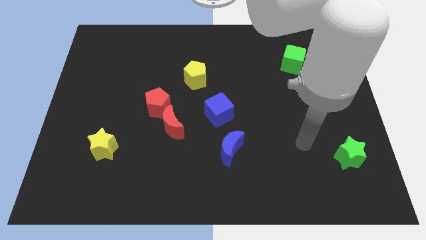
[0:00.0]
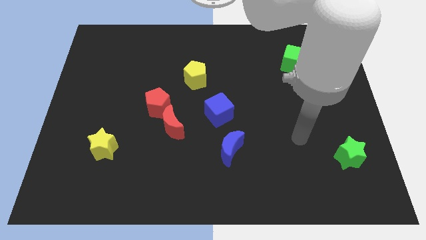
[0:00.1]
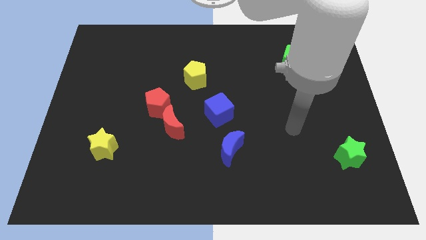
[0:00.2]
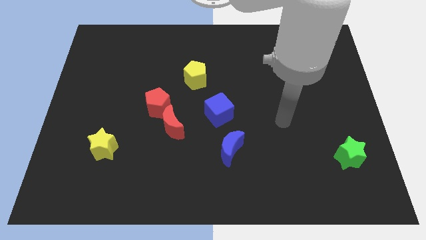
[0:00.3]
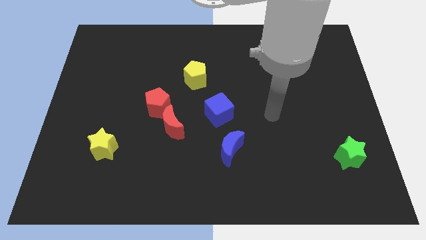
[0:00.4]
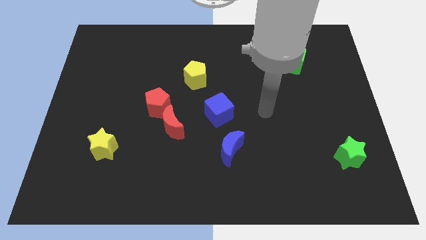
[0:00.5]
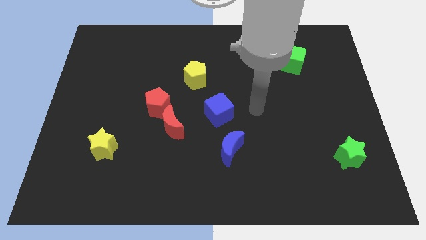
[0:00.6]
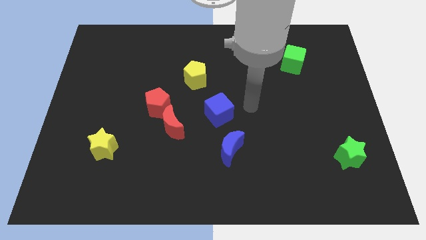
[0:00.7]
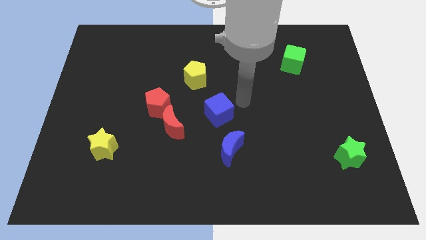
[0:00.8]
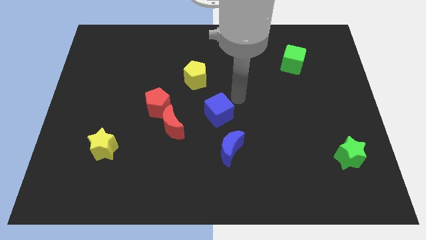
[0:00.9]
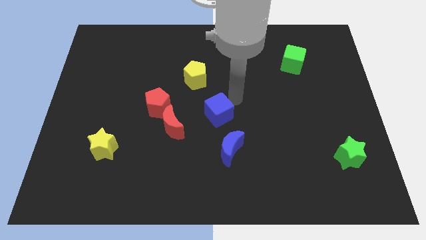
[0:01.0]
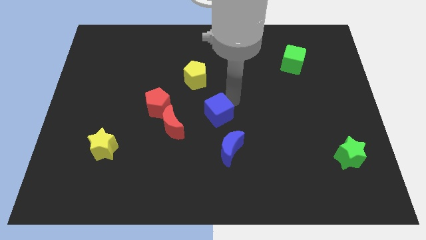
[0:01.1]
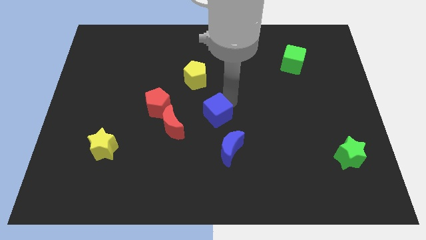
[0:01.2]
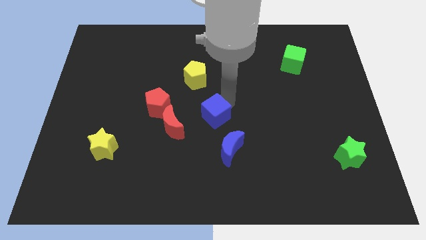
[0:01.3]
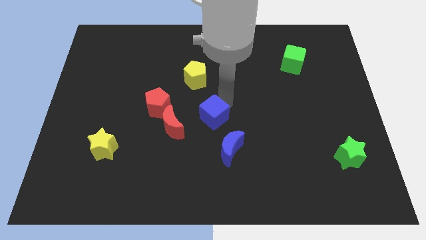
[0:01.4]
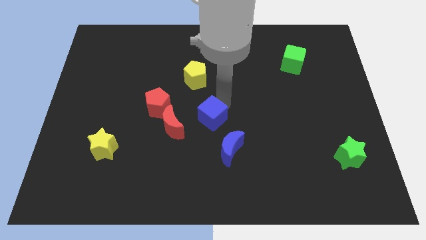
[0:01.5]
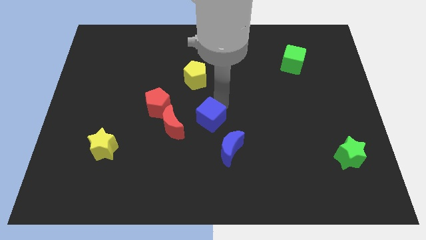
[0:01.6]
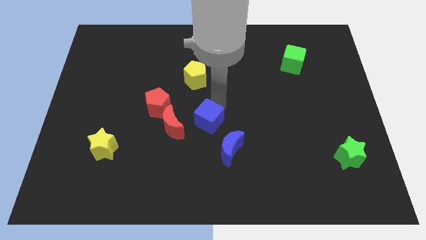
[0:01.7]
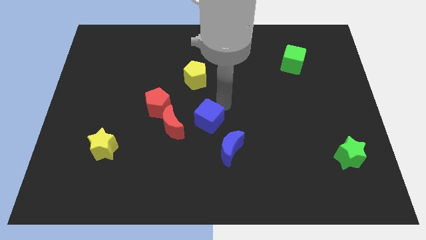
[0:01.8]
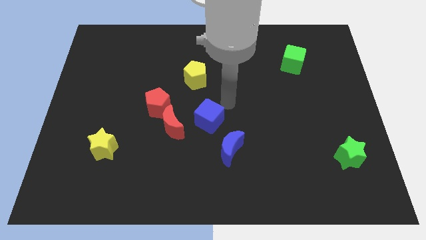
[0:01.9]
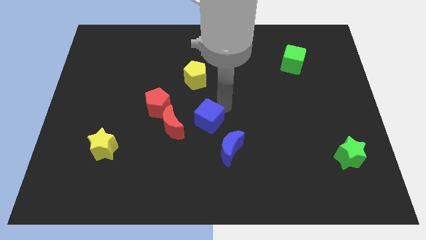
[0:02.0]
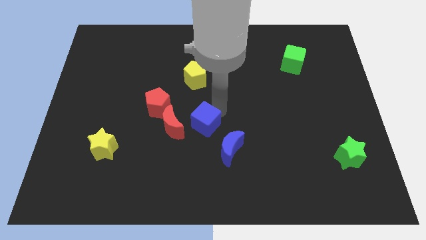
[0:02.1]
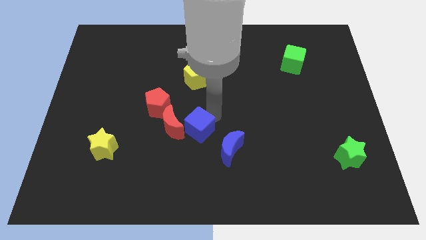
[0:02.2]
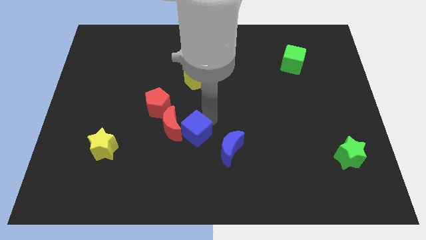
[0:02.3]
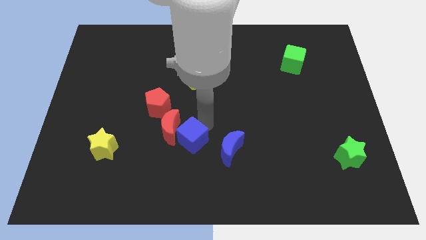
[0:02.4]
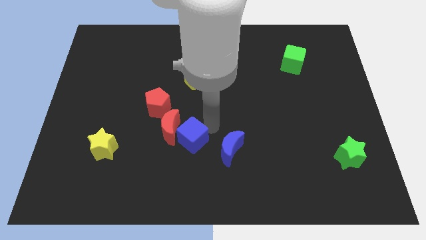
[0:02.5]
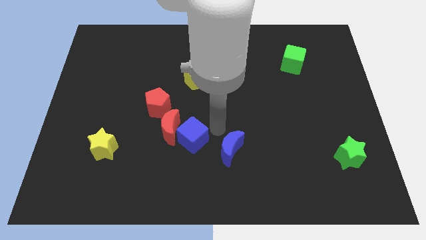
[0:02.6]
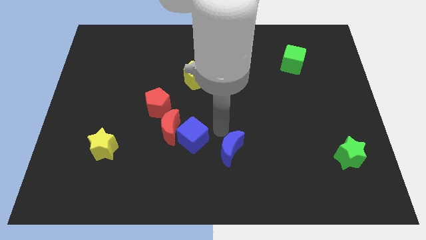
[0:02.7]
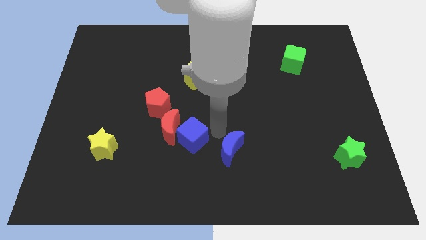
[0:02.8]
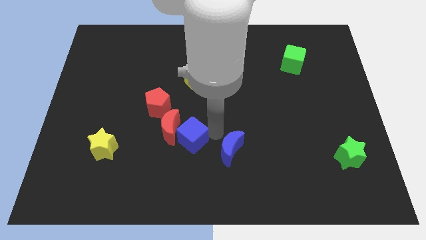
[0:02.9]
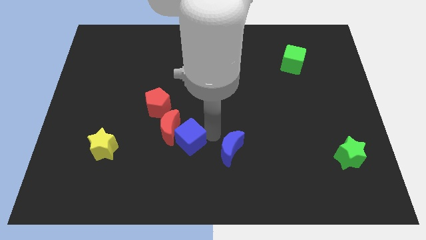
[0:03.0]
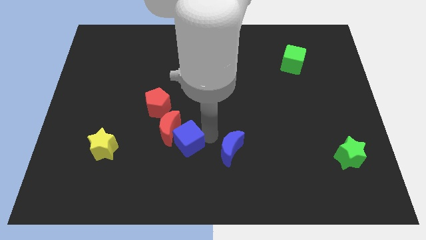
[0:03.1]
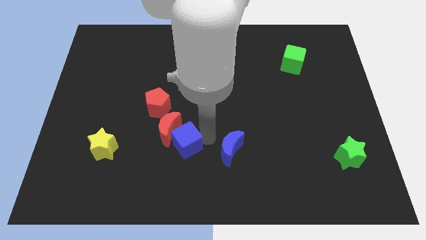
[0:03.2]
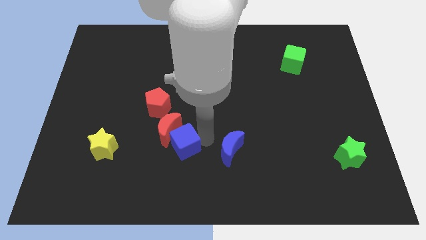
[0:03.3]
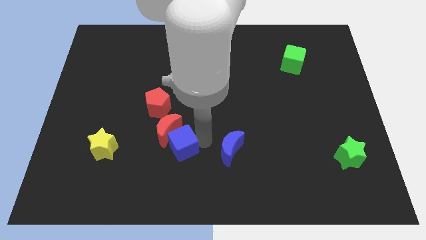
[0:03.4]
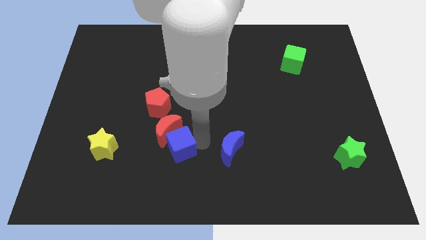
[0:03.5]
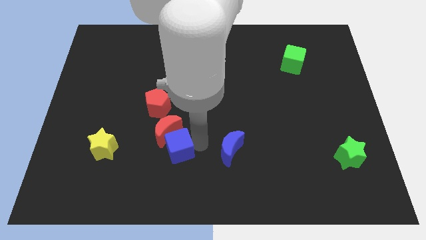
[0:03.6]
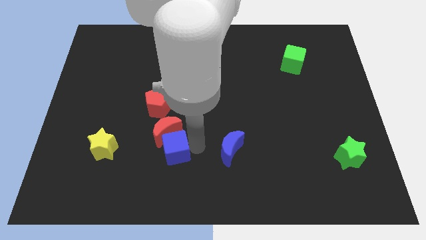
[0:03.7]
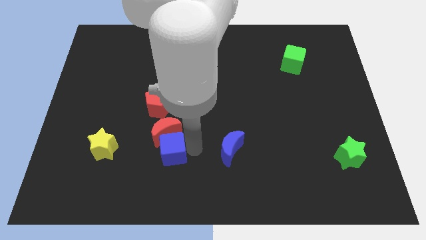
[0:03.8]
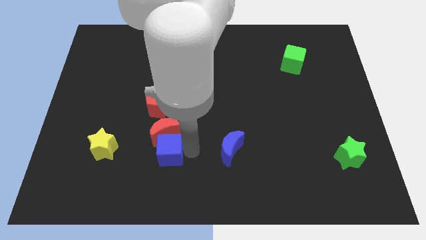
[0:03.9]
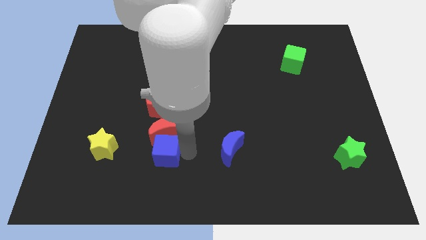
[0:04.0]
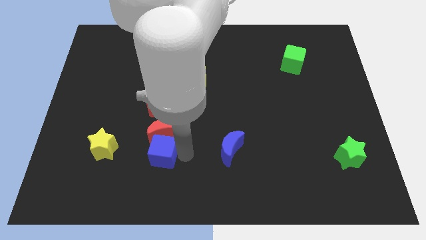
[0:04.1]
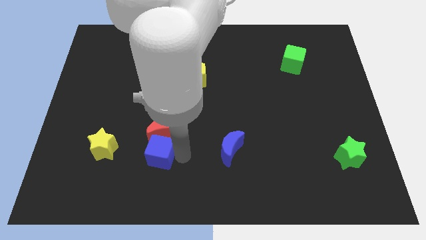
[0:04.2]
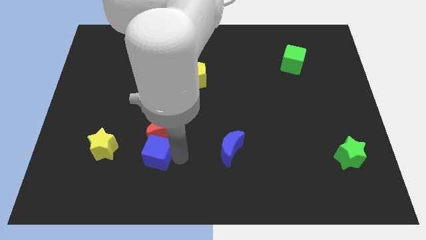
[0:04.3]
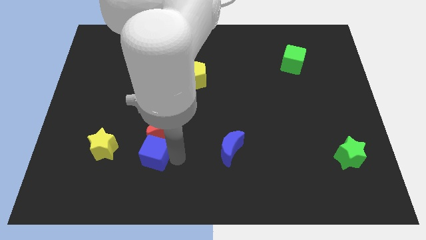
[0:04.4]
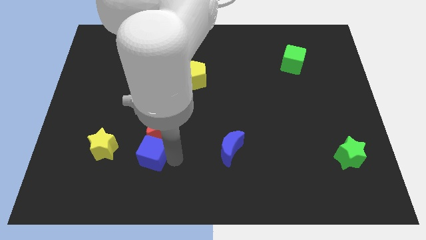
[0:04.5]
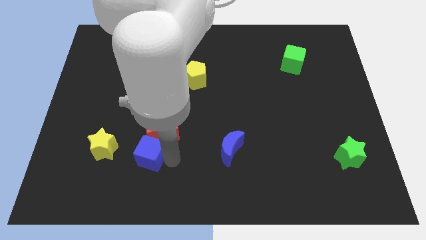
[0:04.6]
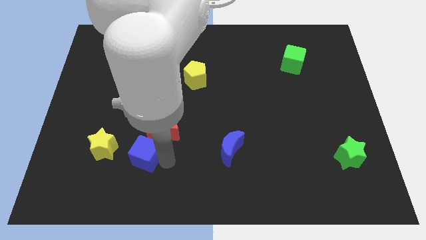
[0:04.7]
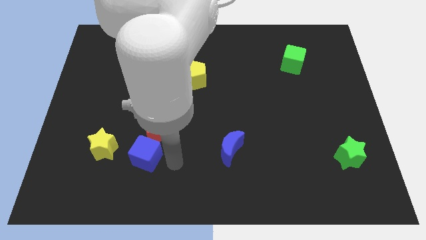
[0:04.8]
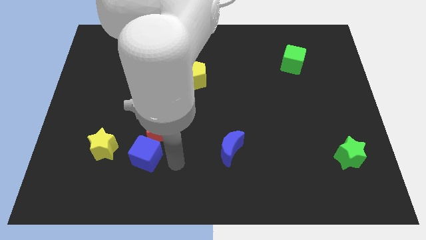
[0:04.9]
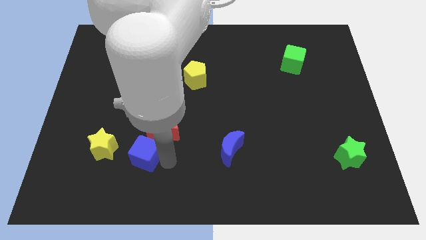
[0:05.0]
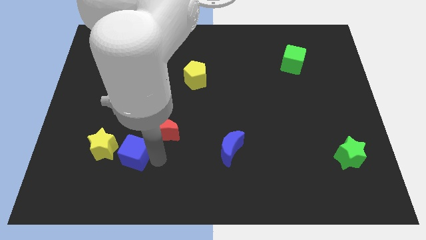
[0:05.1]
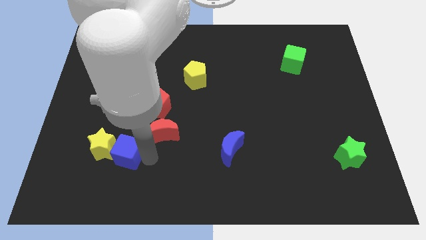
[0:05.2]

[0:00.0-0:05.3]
move the blue cube next to the yellow star

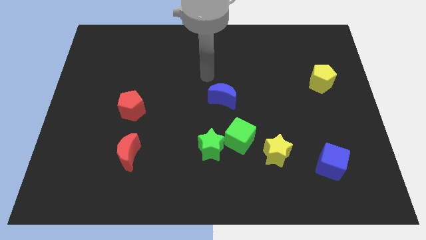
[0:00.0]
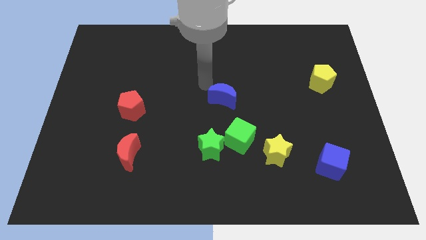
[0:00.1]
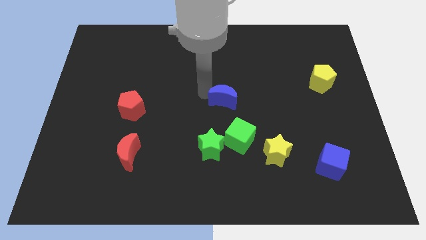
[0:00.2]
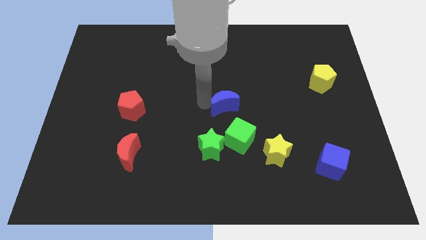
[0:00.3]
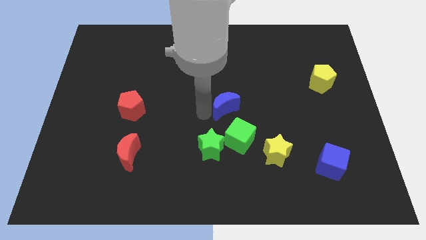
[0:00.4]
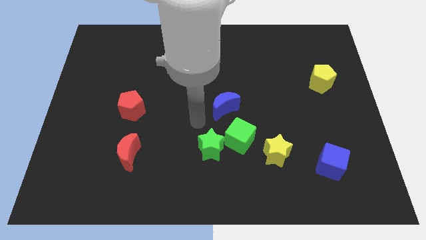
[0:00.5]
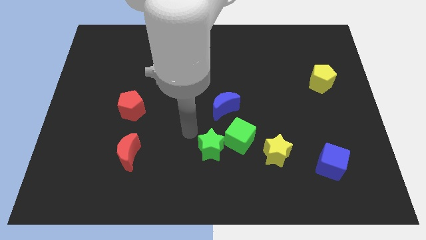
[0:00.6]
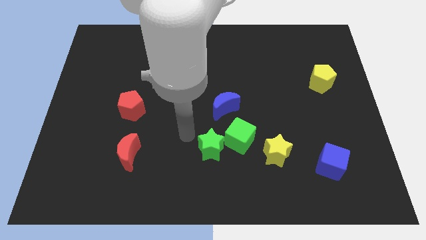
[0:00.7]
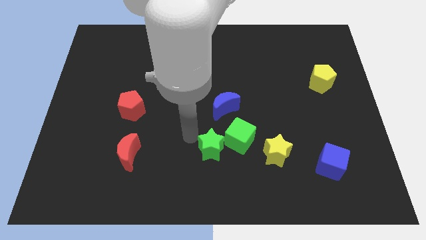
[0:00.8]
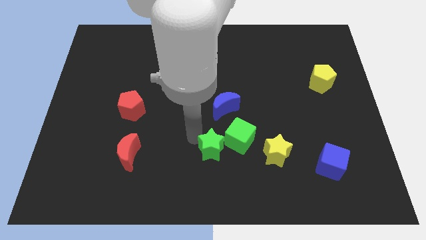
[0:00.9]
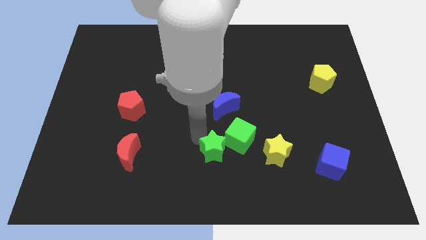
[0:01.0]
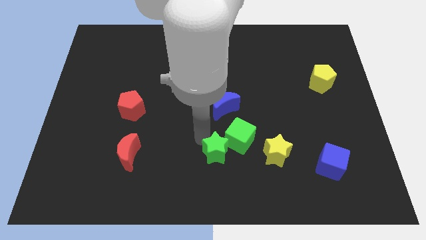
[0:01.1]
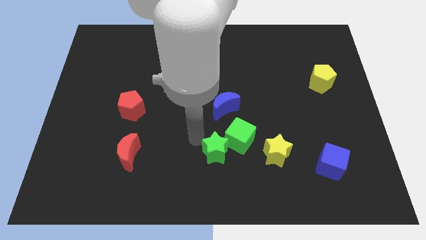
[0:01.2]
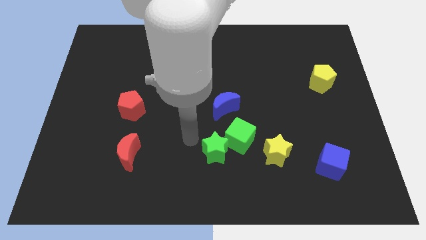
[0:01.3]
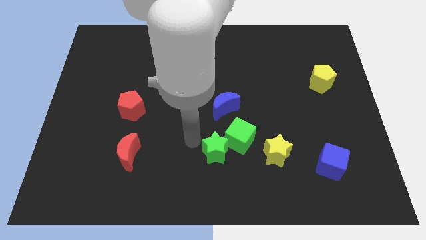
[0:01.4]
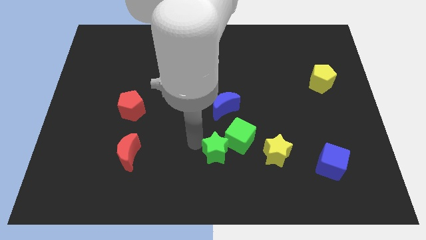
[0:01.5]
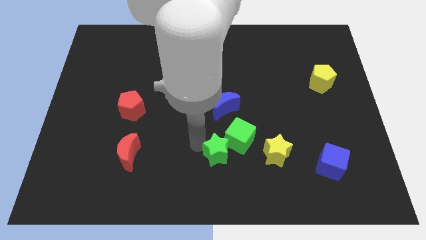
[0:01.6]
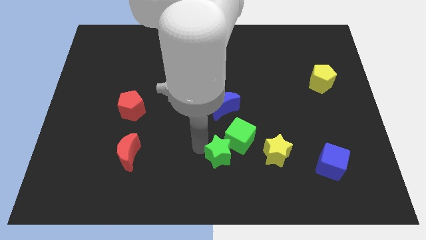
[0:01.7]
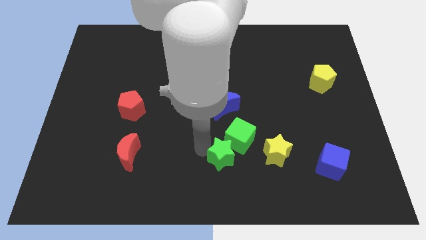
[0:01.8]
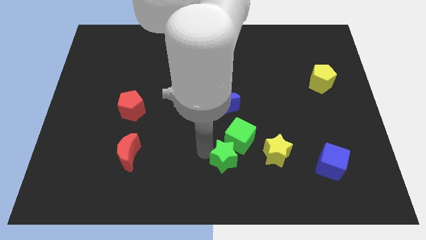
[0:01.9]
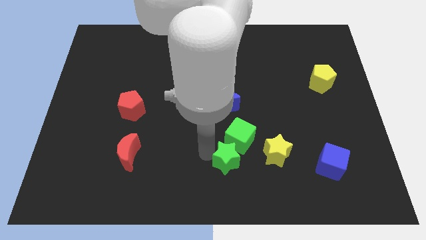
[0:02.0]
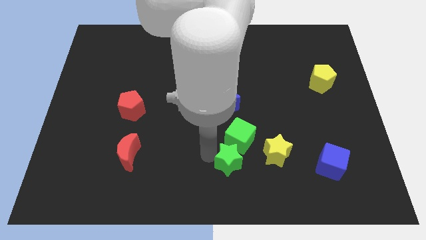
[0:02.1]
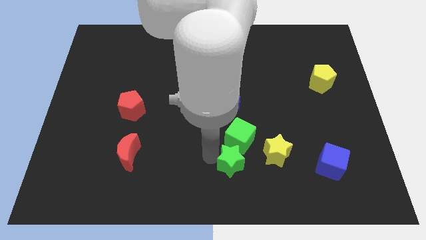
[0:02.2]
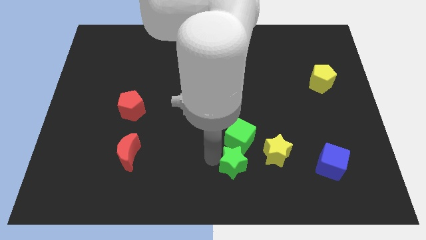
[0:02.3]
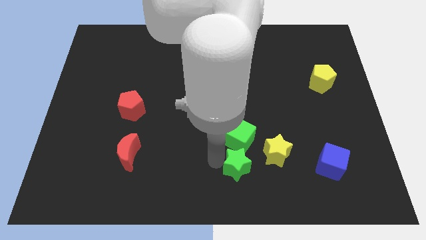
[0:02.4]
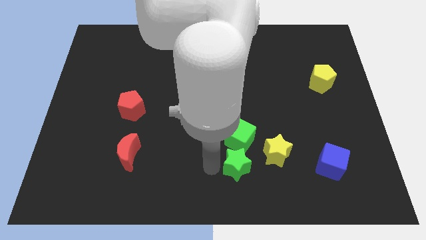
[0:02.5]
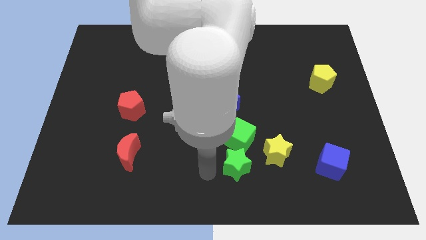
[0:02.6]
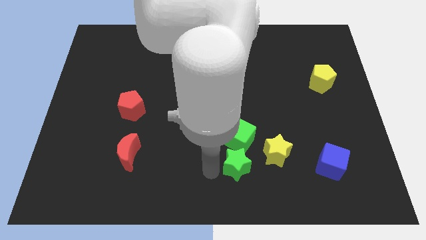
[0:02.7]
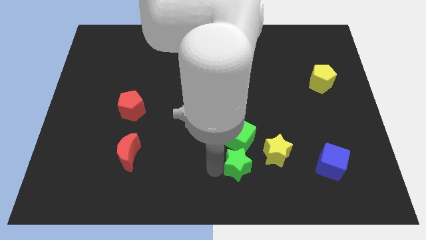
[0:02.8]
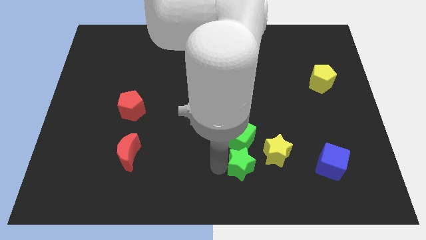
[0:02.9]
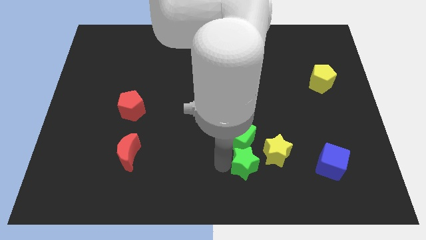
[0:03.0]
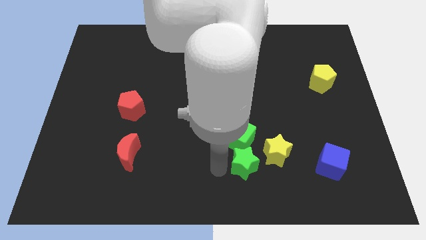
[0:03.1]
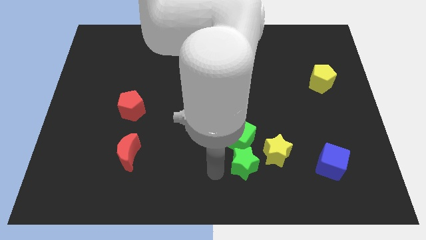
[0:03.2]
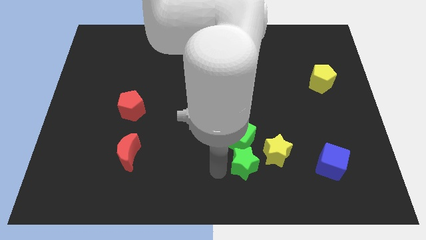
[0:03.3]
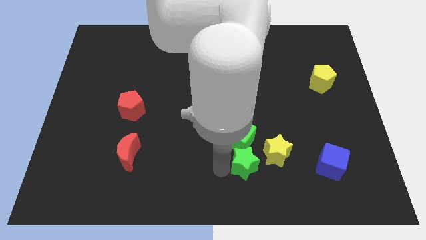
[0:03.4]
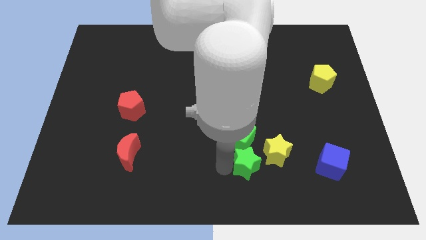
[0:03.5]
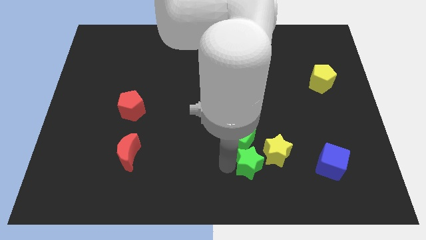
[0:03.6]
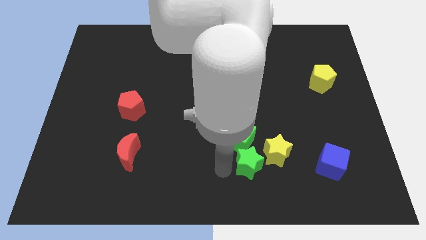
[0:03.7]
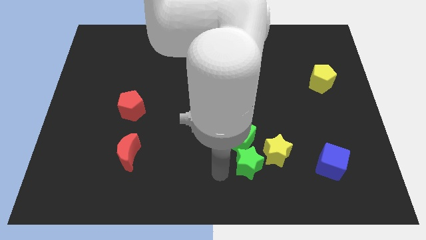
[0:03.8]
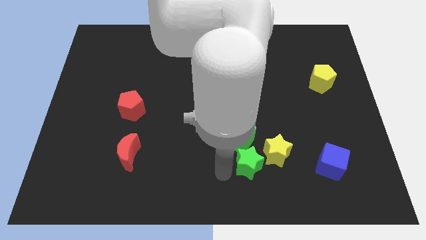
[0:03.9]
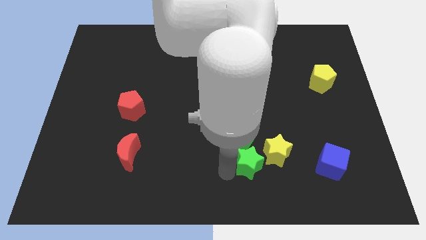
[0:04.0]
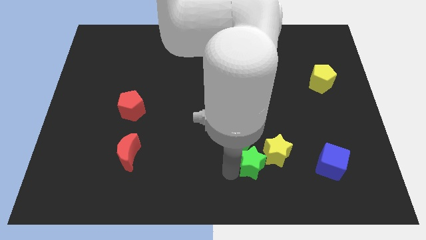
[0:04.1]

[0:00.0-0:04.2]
slide the green star to the yellow star
